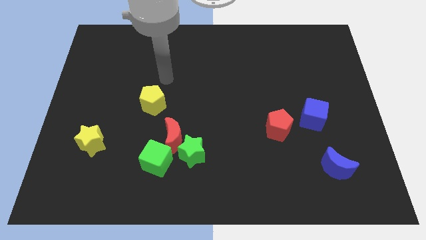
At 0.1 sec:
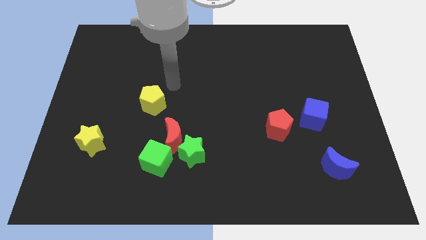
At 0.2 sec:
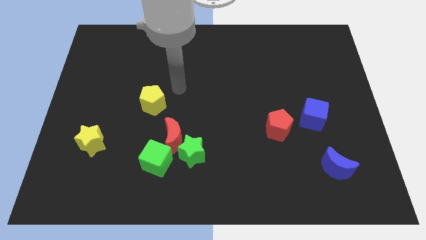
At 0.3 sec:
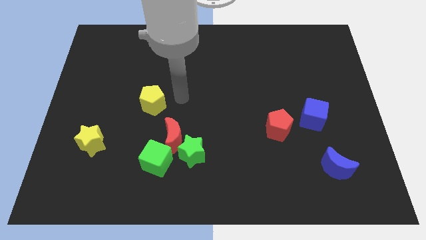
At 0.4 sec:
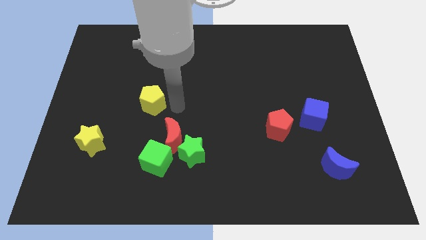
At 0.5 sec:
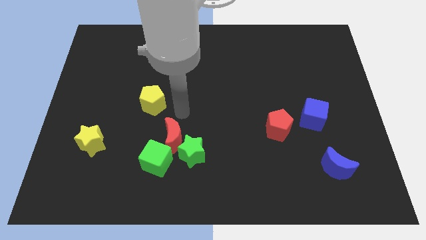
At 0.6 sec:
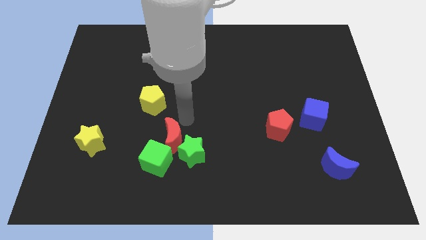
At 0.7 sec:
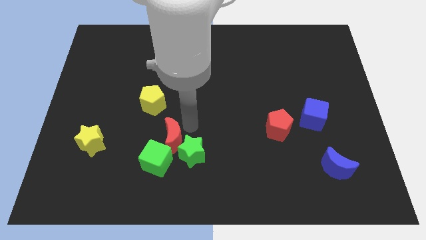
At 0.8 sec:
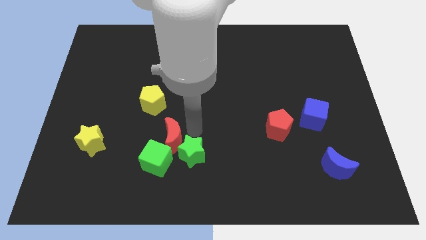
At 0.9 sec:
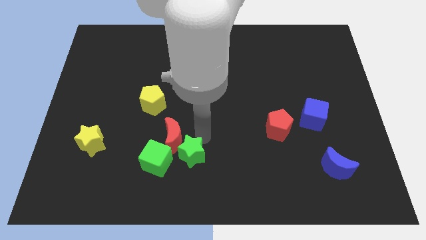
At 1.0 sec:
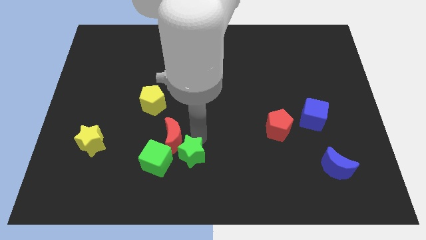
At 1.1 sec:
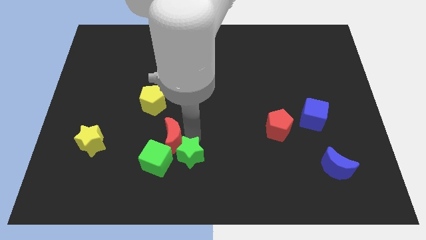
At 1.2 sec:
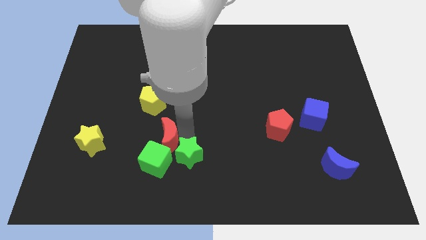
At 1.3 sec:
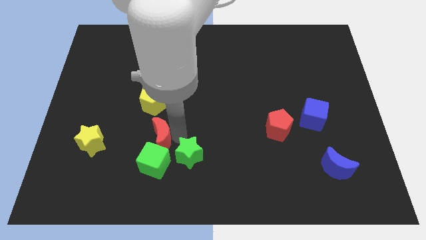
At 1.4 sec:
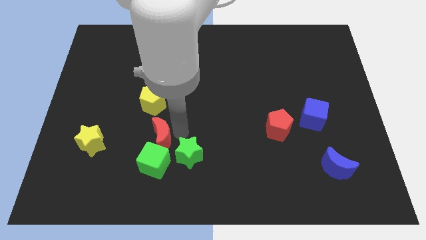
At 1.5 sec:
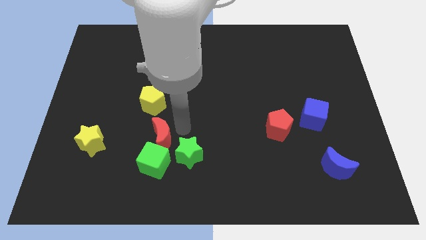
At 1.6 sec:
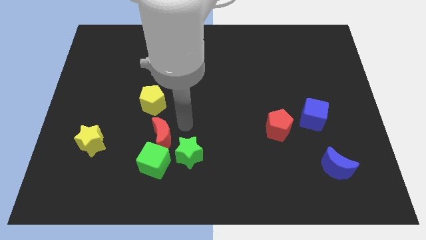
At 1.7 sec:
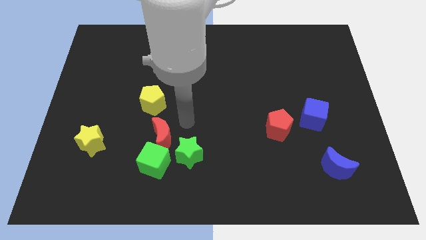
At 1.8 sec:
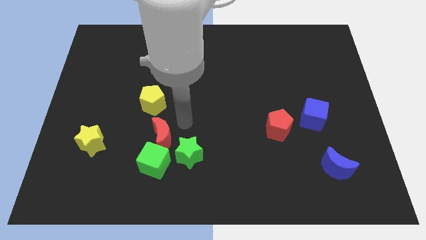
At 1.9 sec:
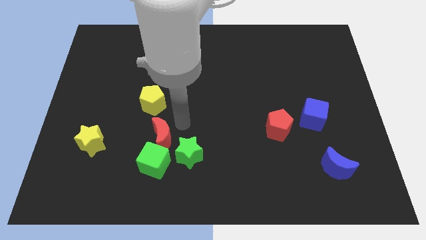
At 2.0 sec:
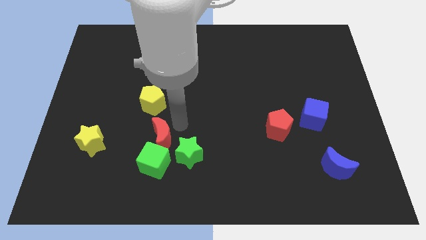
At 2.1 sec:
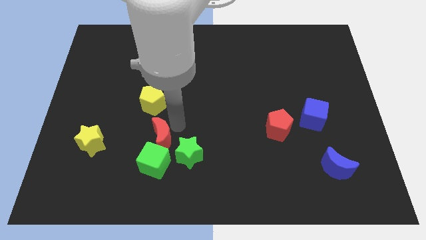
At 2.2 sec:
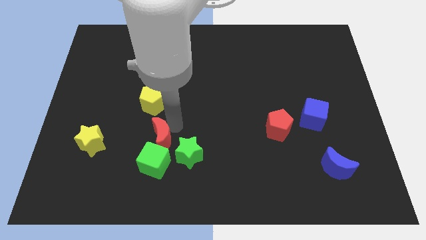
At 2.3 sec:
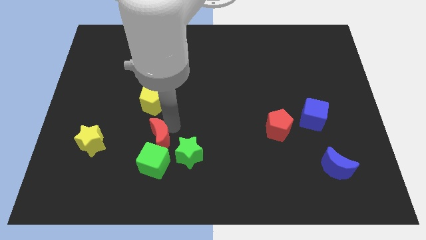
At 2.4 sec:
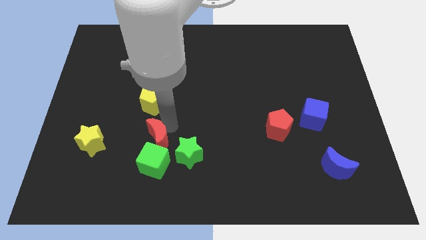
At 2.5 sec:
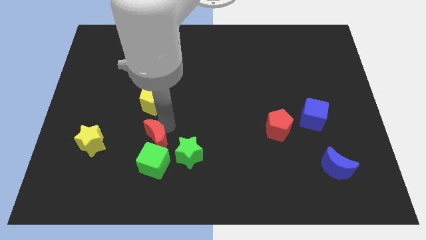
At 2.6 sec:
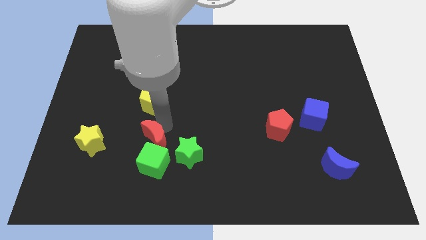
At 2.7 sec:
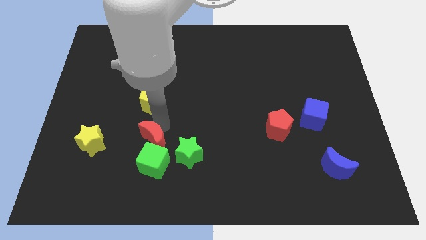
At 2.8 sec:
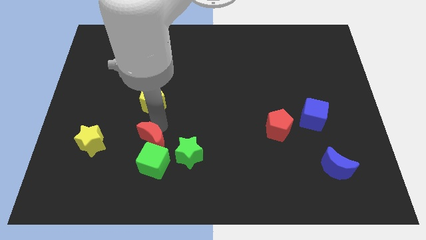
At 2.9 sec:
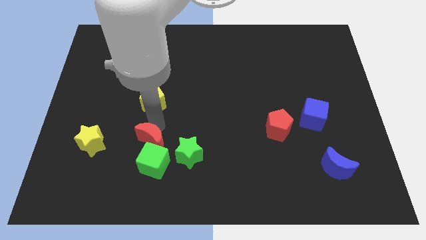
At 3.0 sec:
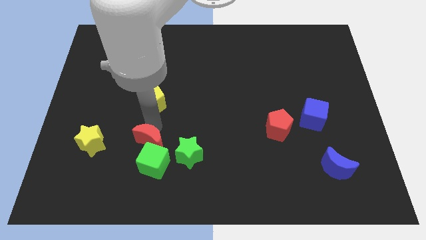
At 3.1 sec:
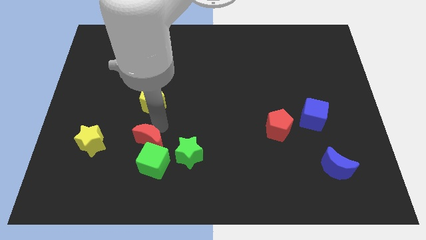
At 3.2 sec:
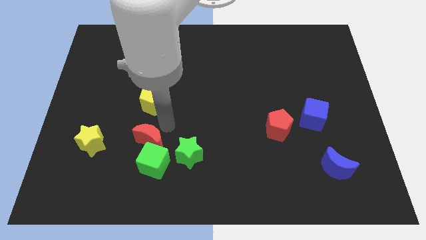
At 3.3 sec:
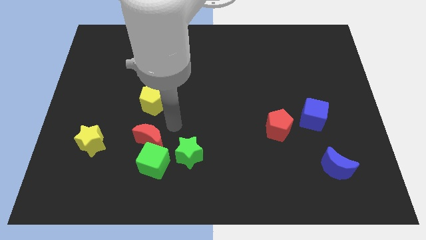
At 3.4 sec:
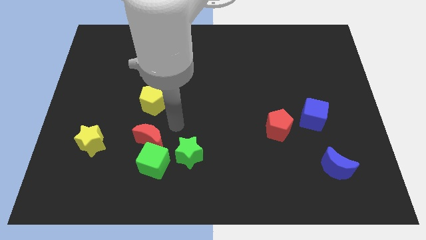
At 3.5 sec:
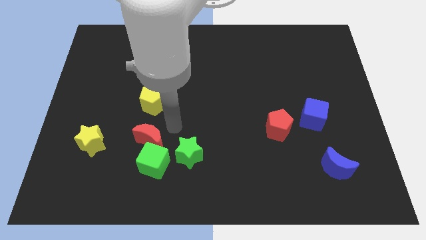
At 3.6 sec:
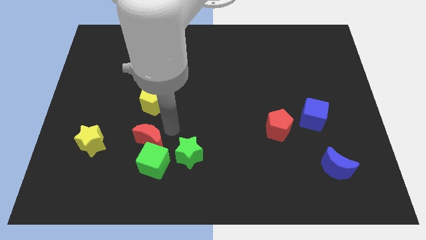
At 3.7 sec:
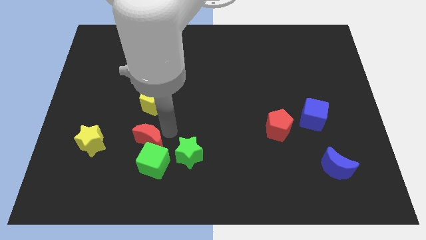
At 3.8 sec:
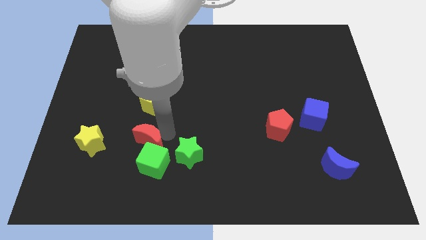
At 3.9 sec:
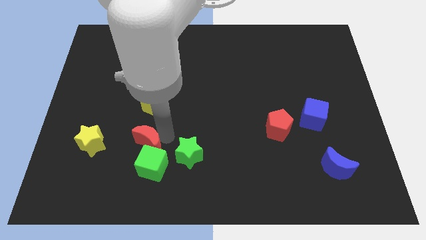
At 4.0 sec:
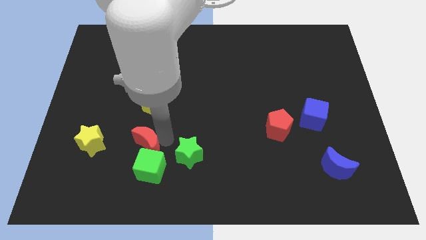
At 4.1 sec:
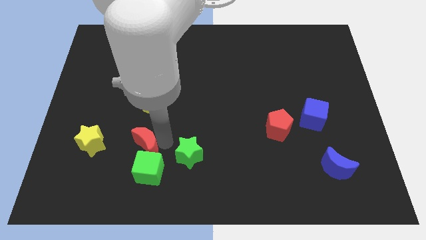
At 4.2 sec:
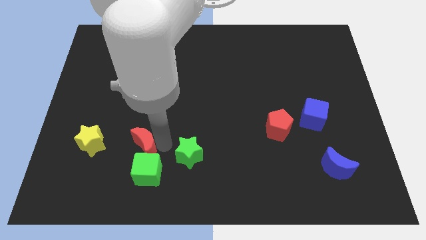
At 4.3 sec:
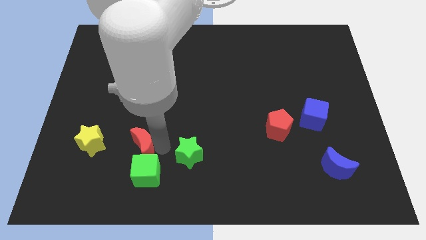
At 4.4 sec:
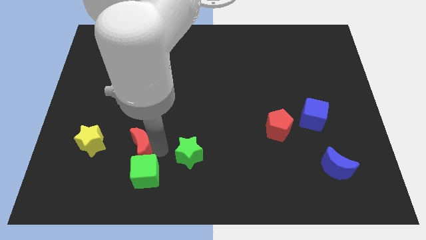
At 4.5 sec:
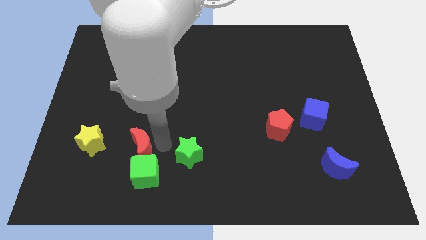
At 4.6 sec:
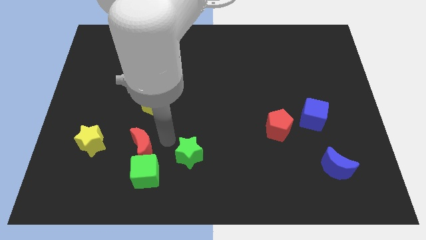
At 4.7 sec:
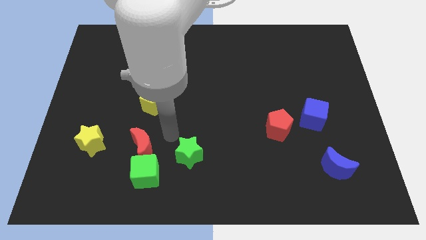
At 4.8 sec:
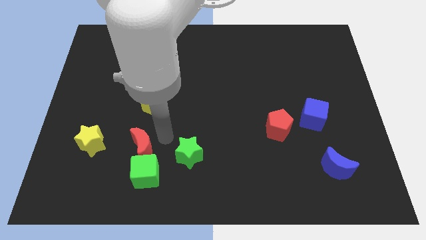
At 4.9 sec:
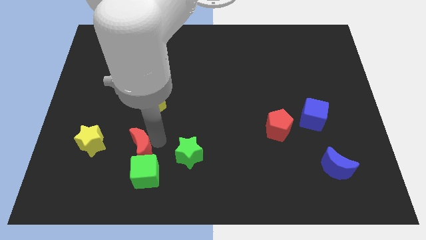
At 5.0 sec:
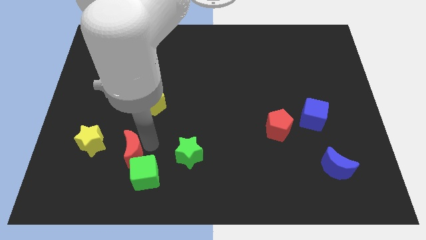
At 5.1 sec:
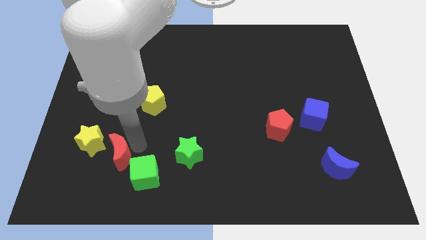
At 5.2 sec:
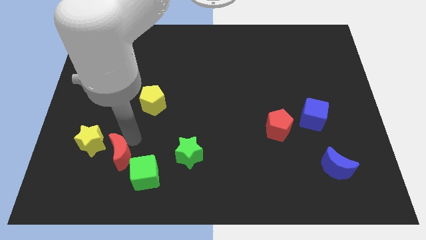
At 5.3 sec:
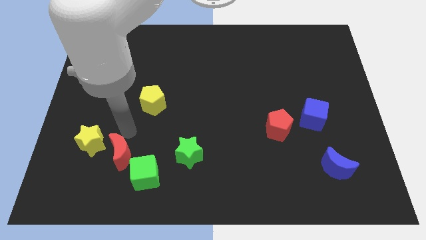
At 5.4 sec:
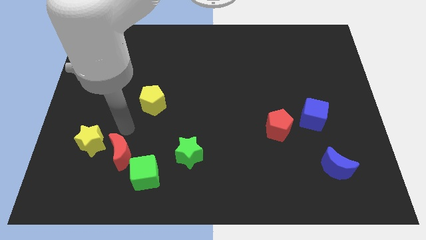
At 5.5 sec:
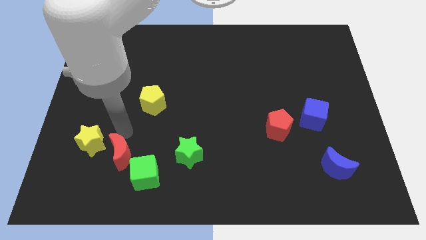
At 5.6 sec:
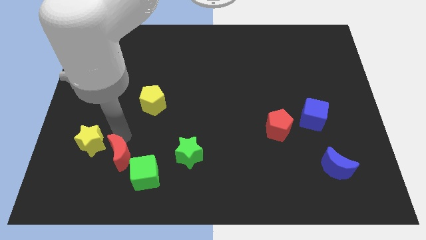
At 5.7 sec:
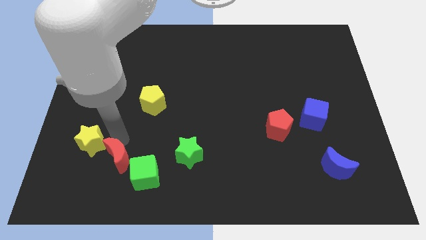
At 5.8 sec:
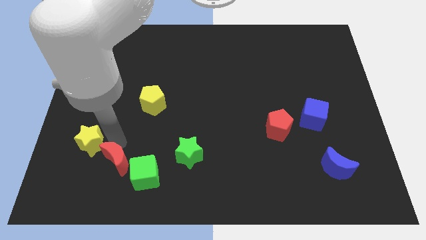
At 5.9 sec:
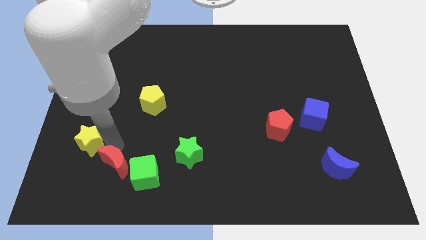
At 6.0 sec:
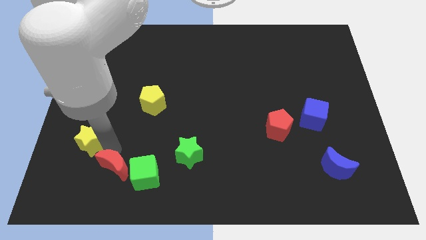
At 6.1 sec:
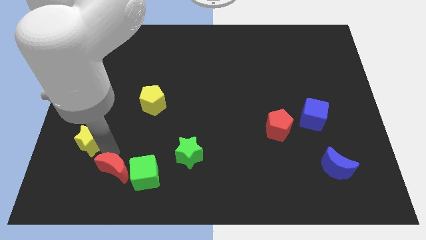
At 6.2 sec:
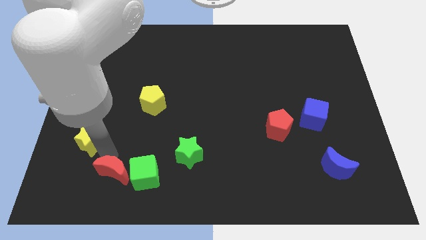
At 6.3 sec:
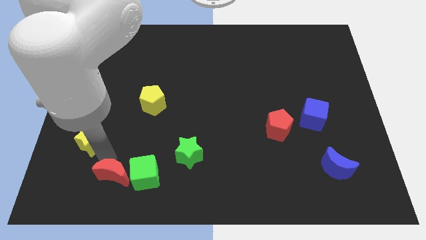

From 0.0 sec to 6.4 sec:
slide the red moon to the bottom left of the green cube
